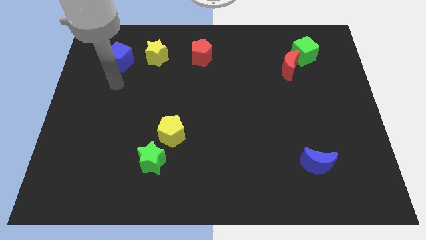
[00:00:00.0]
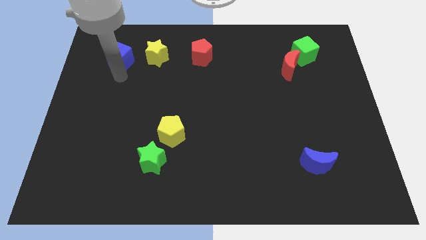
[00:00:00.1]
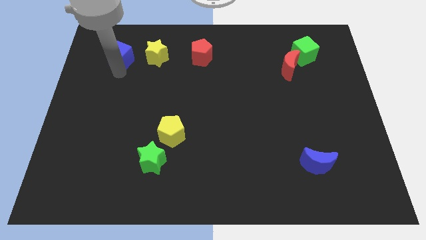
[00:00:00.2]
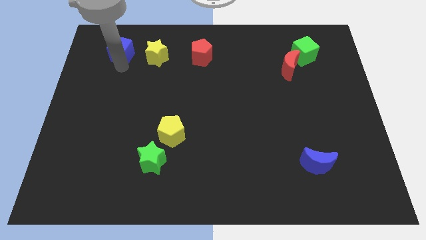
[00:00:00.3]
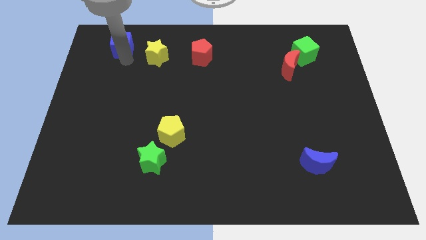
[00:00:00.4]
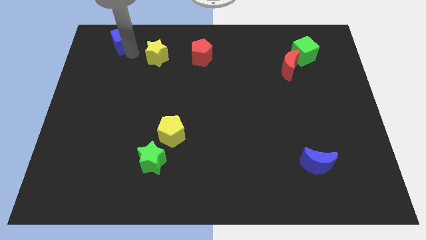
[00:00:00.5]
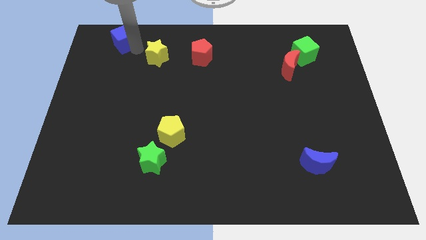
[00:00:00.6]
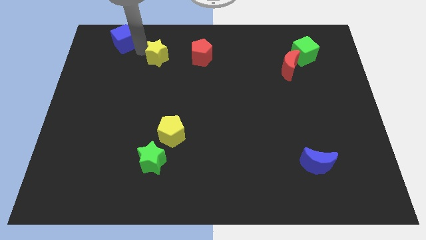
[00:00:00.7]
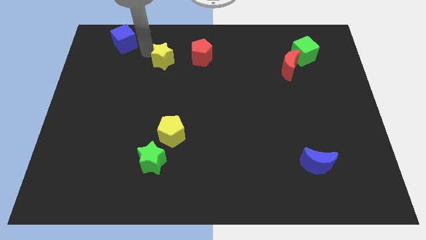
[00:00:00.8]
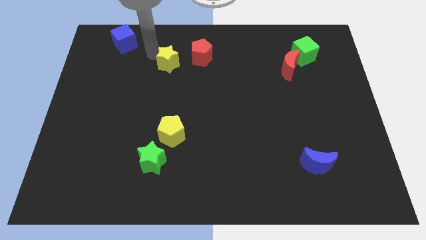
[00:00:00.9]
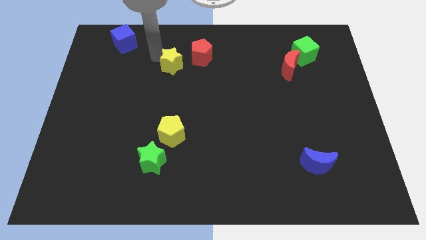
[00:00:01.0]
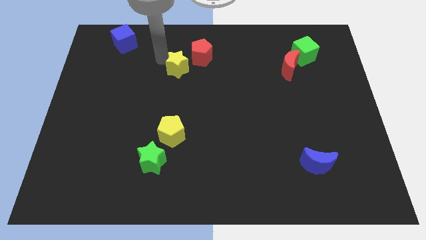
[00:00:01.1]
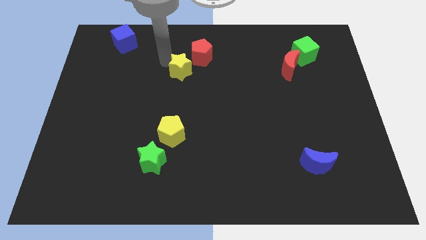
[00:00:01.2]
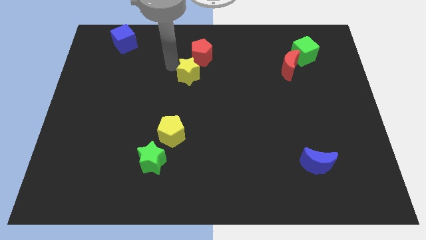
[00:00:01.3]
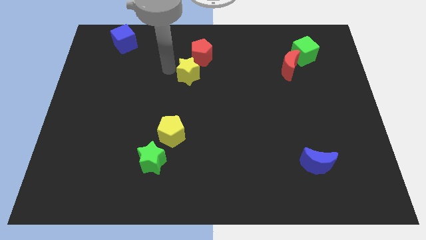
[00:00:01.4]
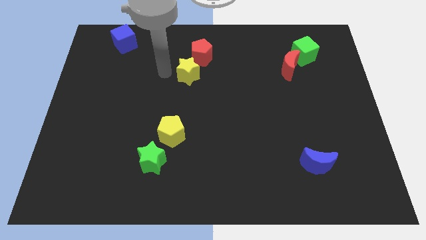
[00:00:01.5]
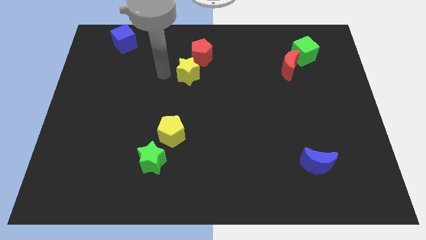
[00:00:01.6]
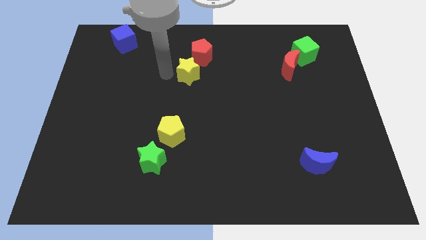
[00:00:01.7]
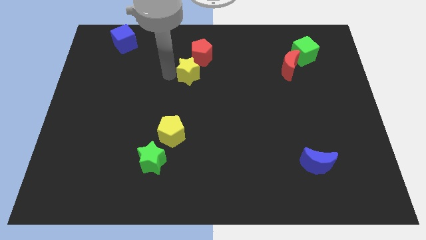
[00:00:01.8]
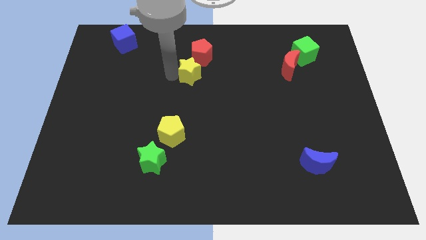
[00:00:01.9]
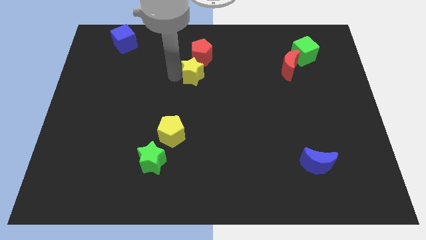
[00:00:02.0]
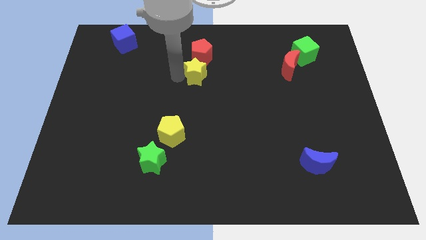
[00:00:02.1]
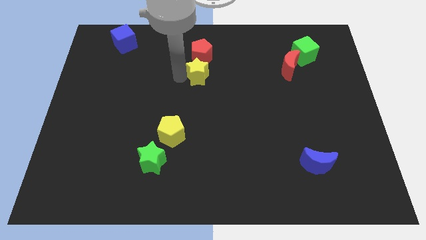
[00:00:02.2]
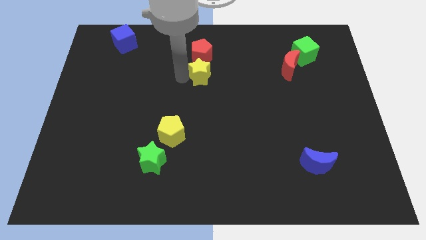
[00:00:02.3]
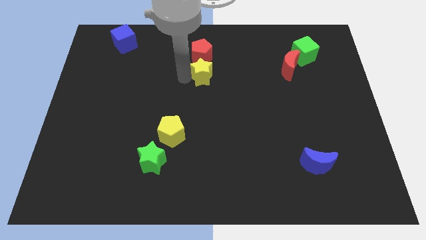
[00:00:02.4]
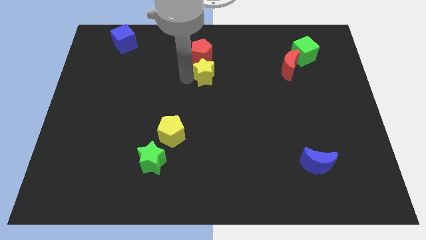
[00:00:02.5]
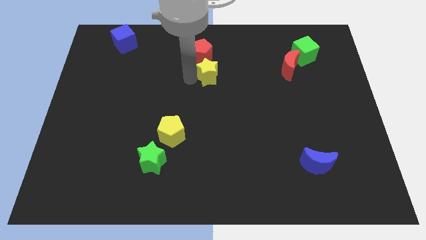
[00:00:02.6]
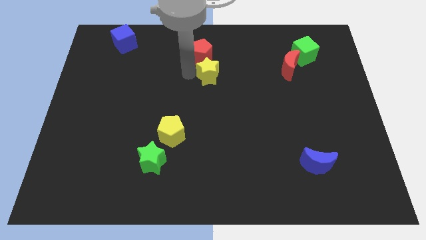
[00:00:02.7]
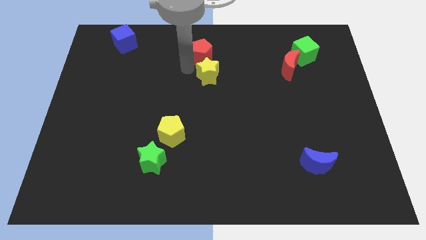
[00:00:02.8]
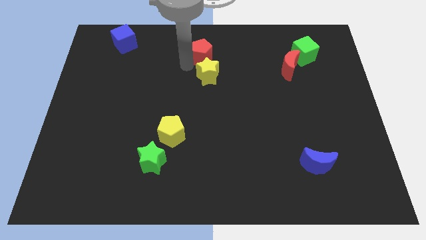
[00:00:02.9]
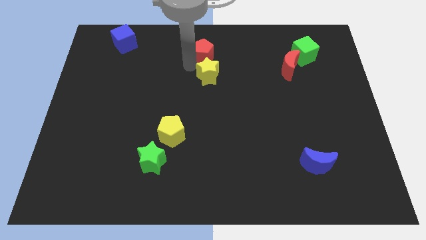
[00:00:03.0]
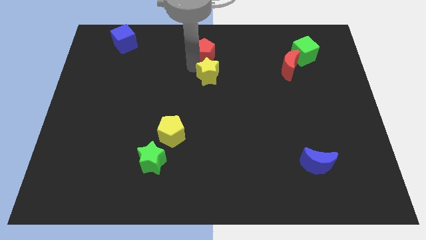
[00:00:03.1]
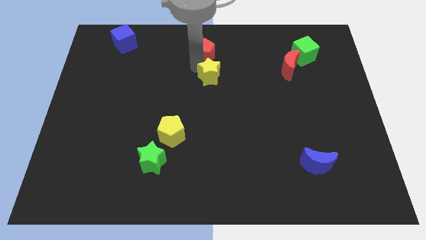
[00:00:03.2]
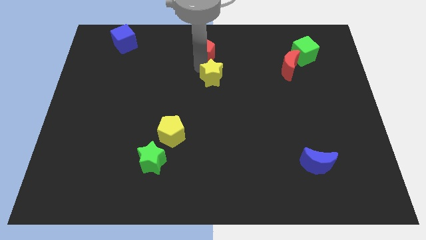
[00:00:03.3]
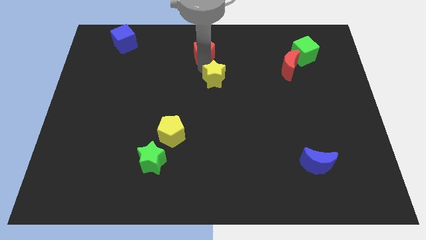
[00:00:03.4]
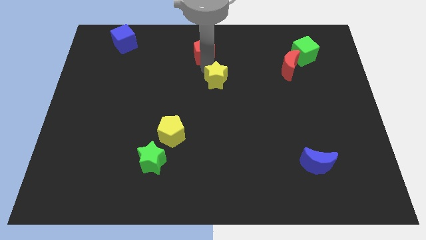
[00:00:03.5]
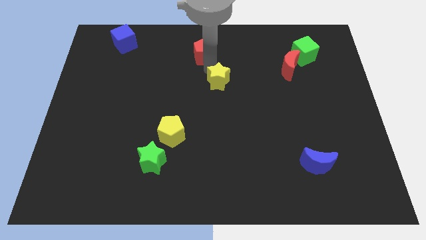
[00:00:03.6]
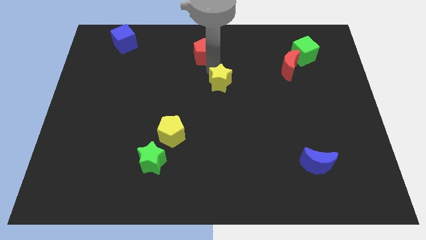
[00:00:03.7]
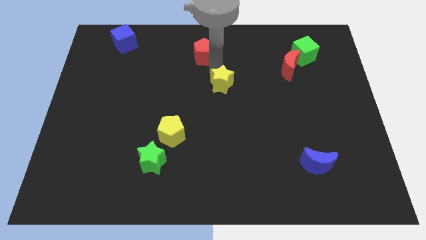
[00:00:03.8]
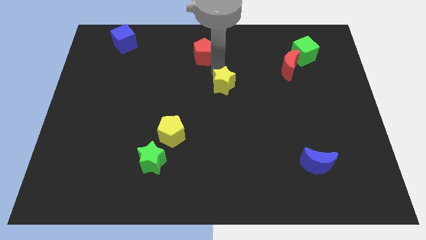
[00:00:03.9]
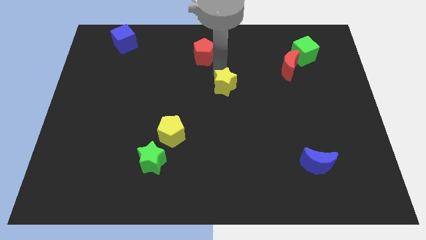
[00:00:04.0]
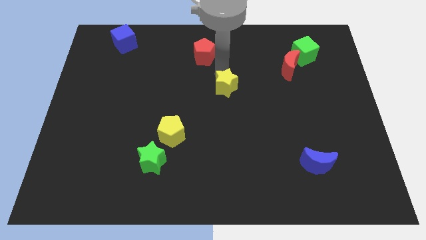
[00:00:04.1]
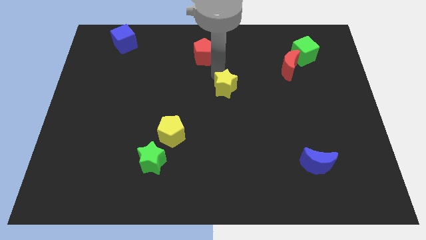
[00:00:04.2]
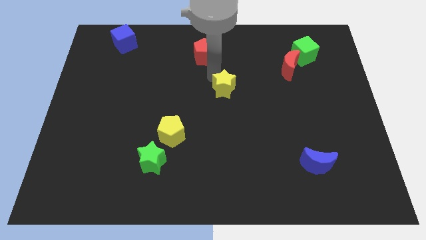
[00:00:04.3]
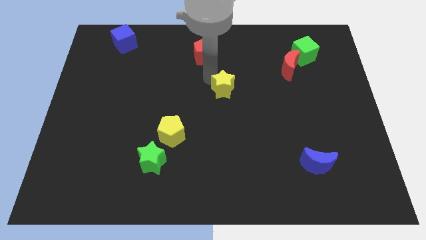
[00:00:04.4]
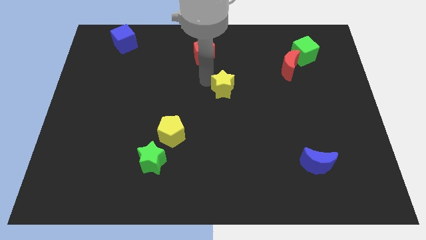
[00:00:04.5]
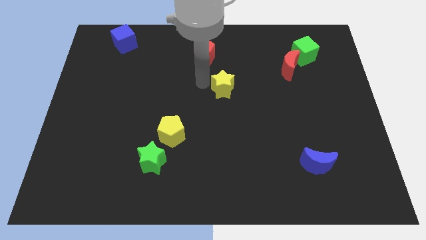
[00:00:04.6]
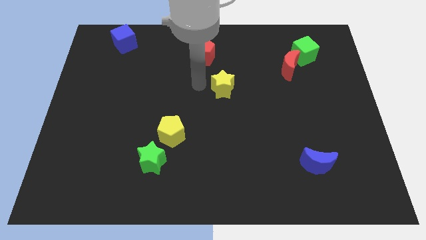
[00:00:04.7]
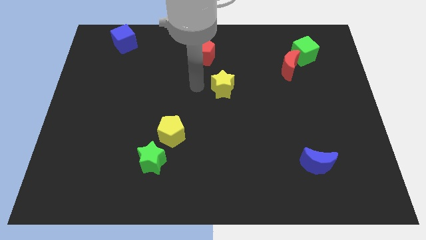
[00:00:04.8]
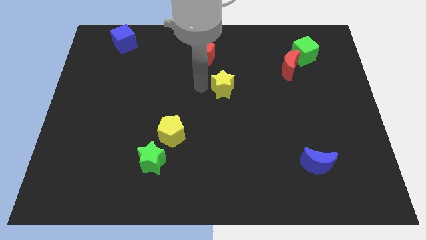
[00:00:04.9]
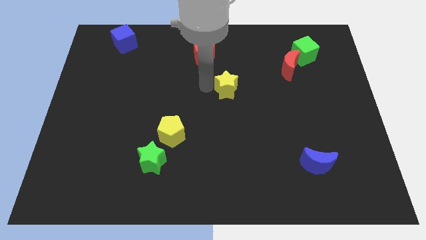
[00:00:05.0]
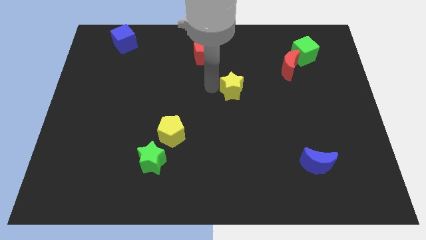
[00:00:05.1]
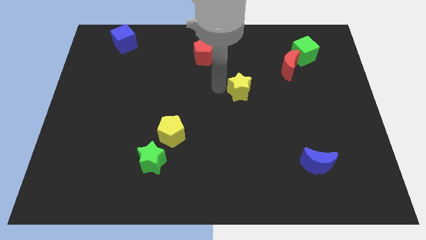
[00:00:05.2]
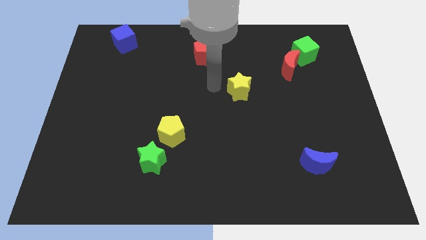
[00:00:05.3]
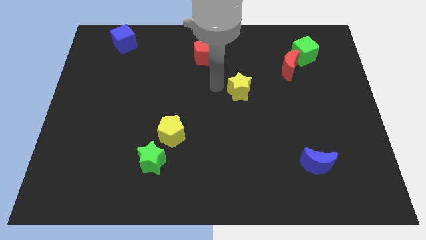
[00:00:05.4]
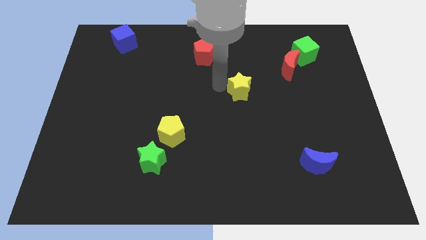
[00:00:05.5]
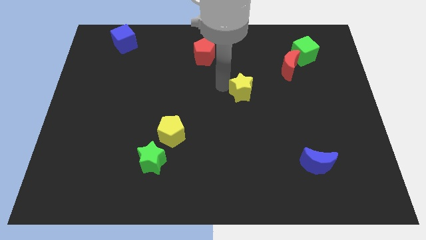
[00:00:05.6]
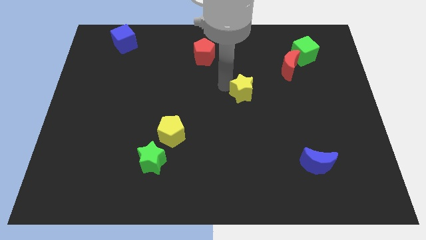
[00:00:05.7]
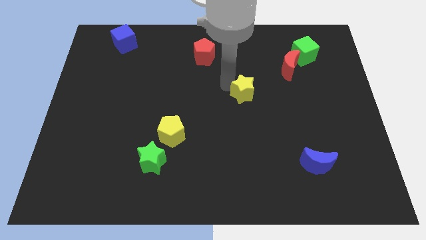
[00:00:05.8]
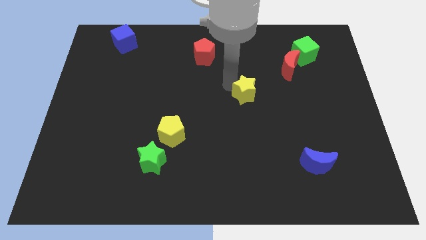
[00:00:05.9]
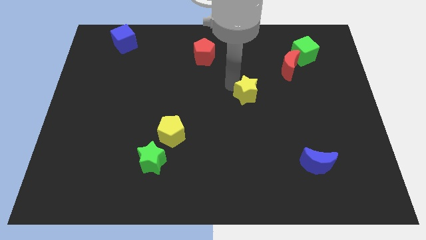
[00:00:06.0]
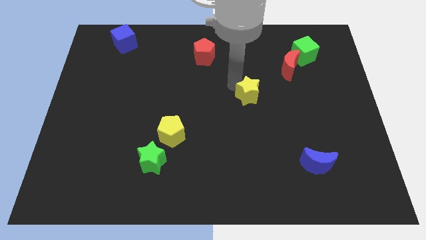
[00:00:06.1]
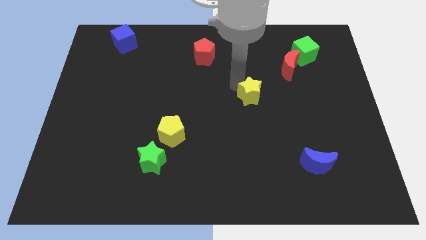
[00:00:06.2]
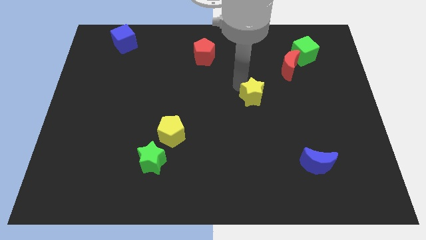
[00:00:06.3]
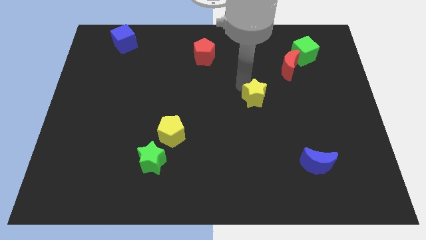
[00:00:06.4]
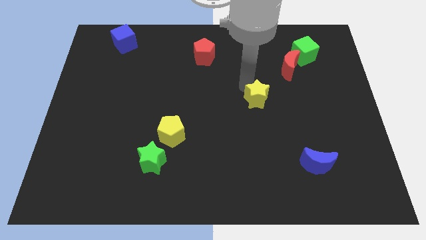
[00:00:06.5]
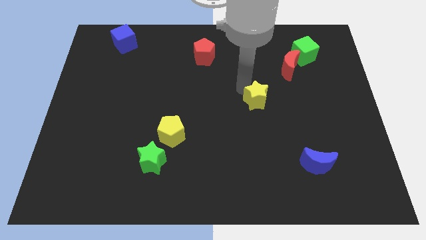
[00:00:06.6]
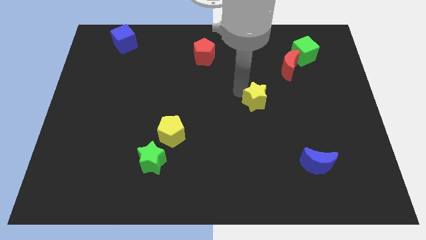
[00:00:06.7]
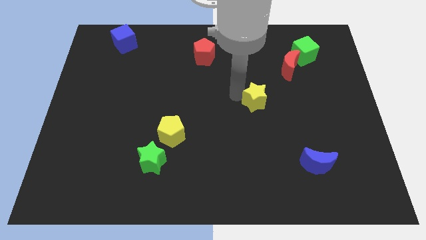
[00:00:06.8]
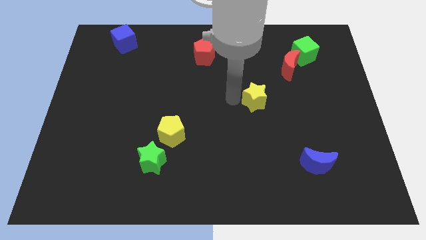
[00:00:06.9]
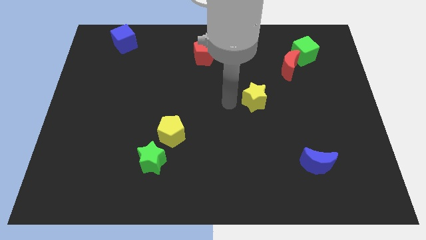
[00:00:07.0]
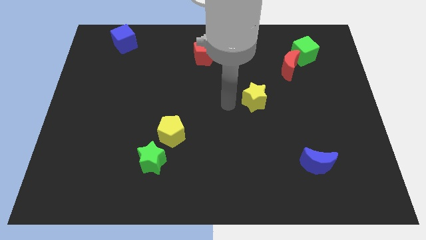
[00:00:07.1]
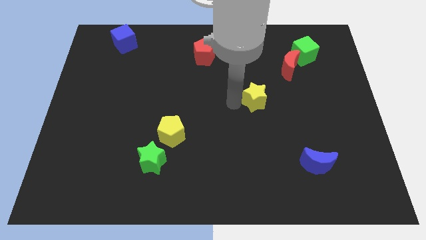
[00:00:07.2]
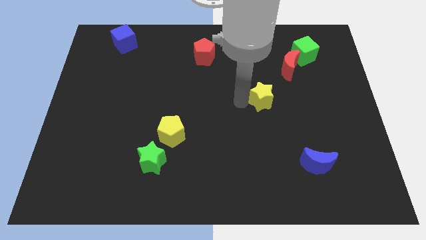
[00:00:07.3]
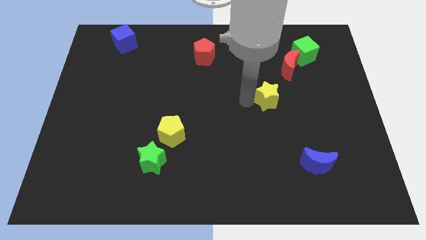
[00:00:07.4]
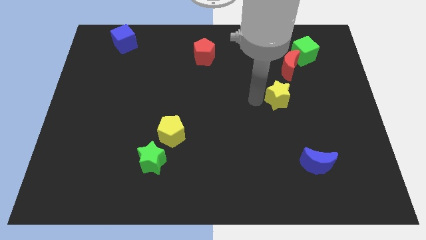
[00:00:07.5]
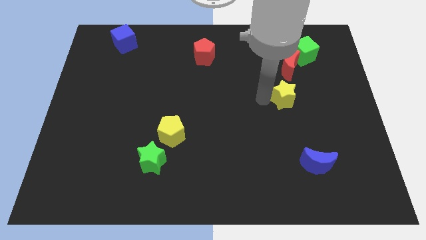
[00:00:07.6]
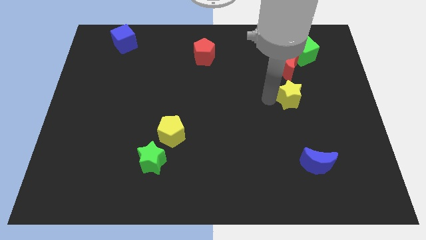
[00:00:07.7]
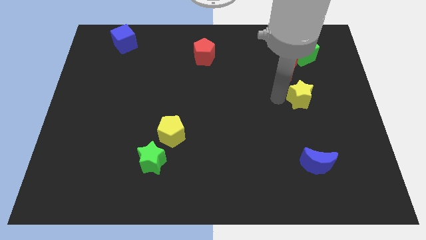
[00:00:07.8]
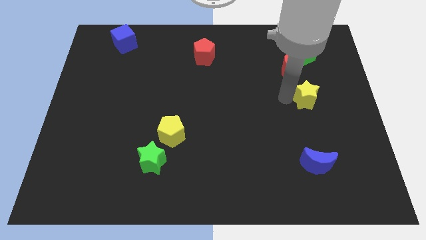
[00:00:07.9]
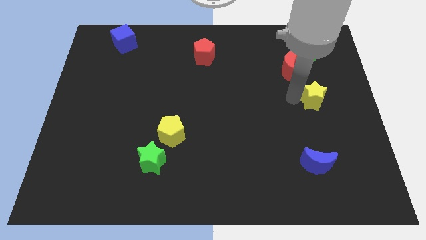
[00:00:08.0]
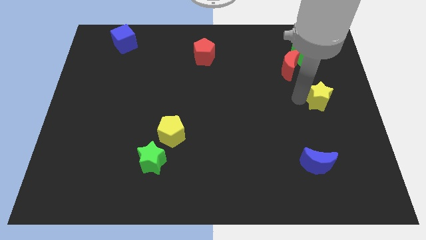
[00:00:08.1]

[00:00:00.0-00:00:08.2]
slide the yellow star to the right side of the board
